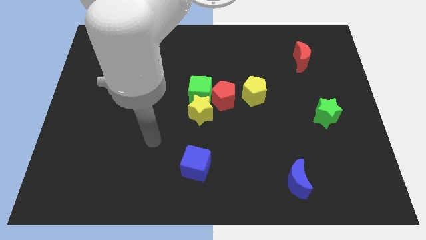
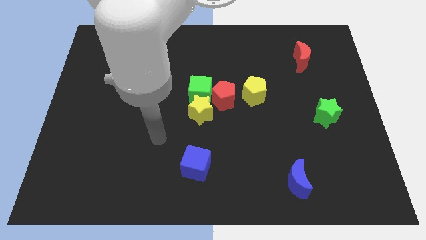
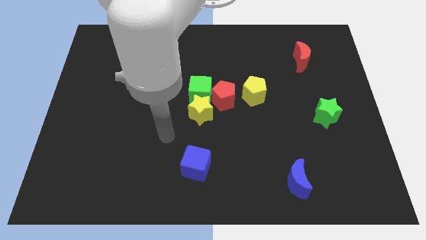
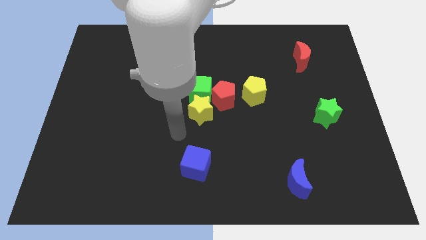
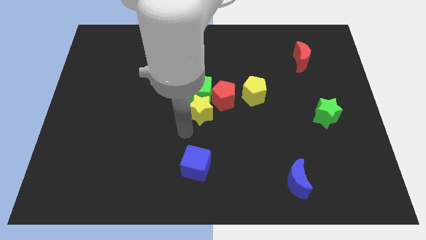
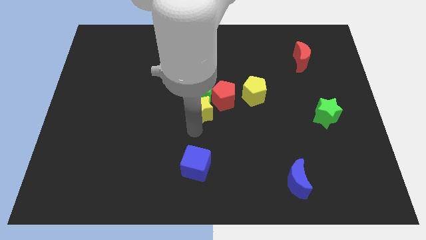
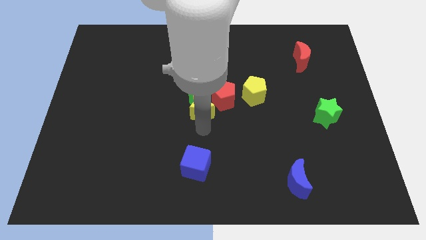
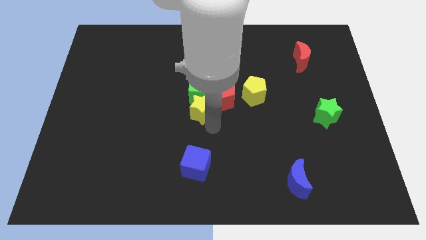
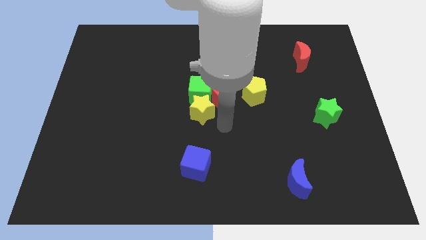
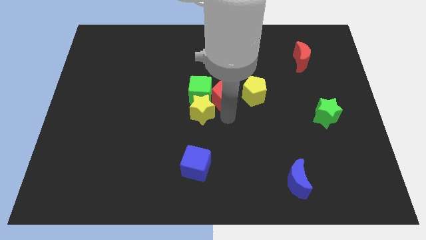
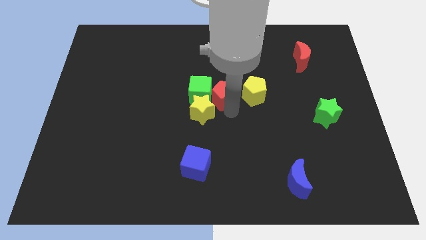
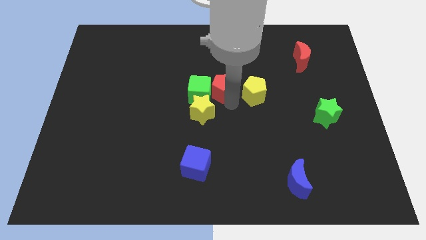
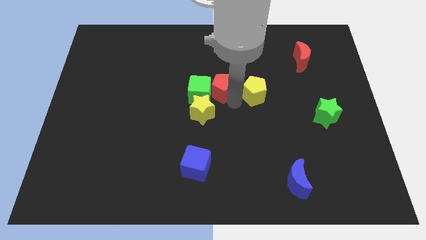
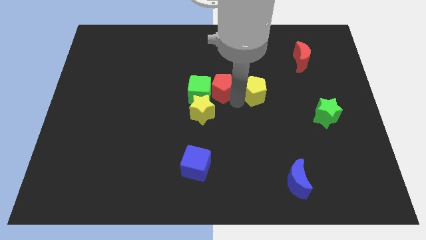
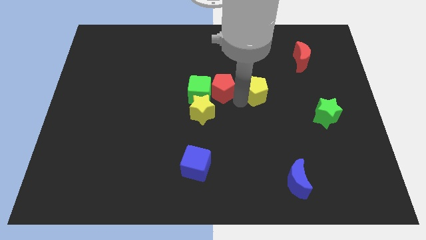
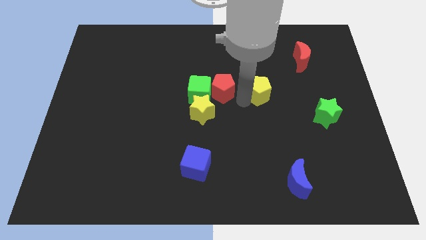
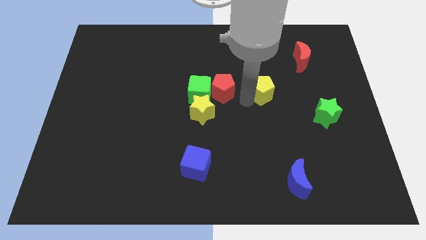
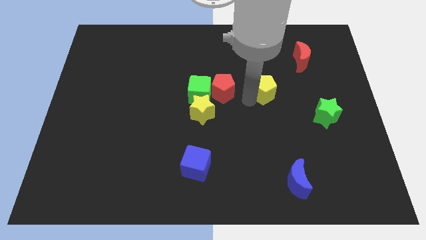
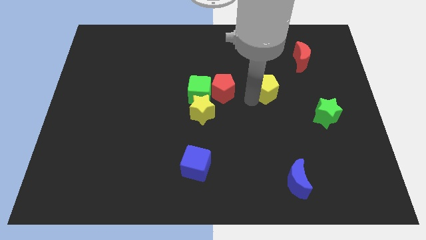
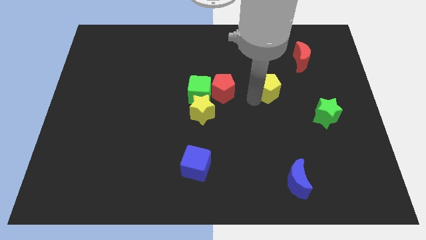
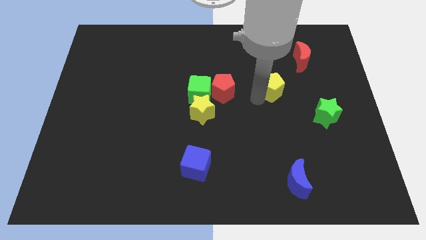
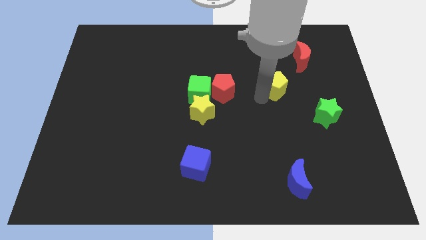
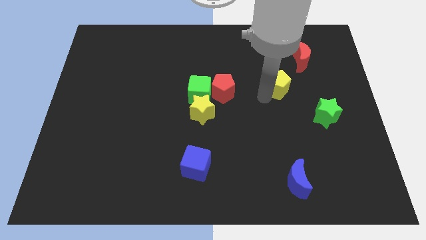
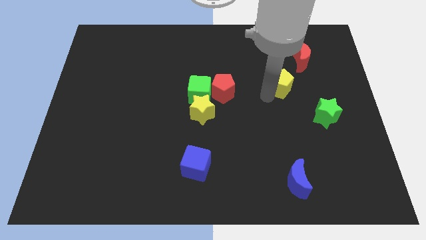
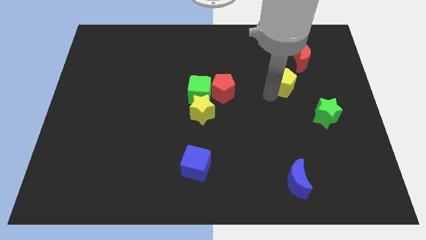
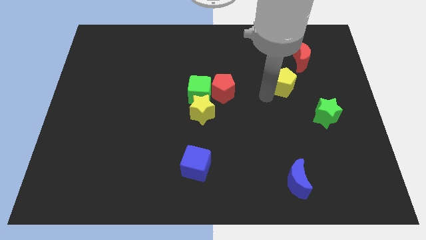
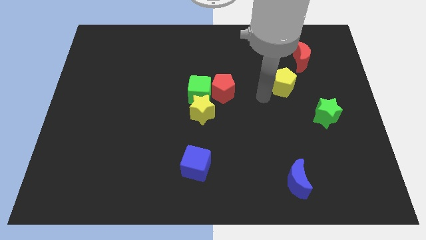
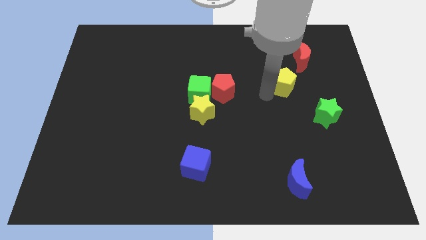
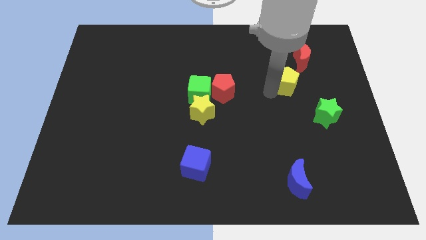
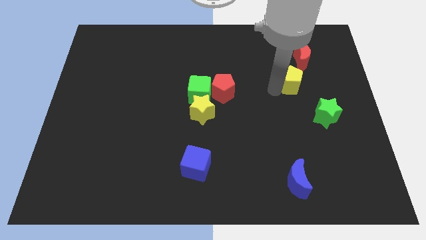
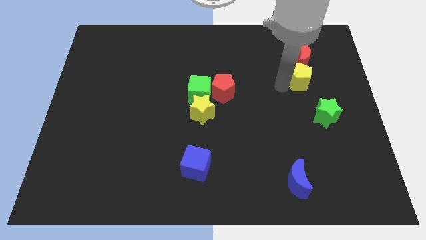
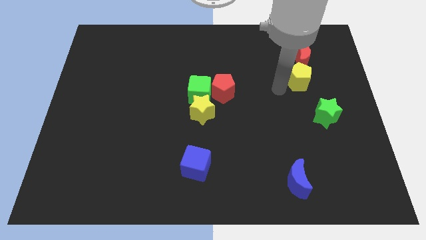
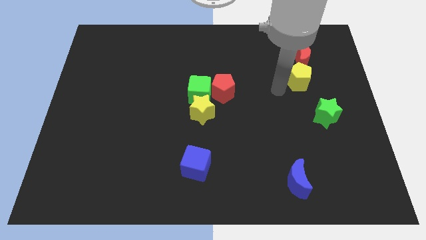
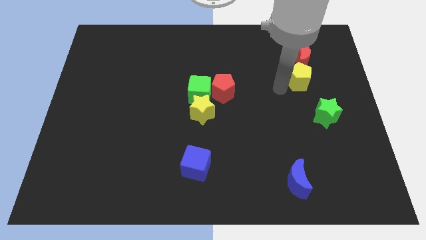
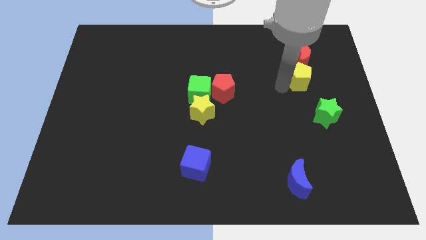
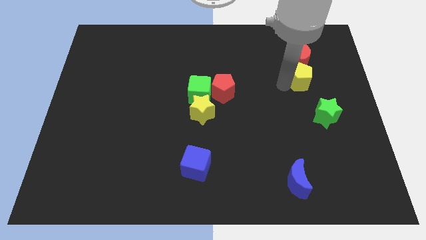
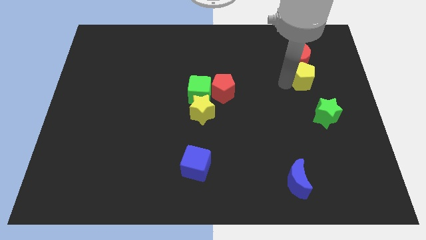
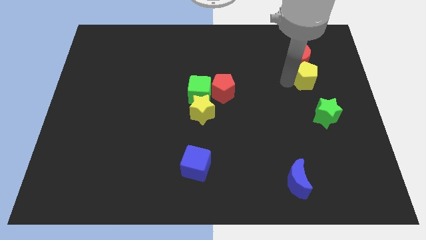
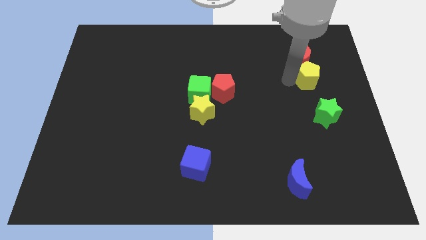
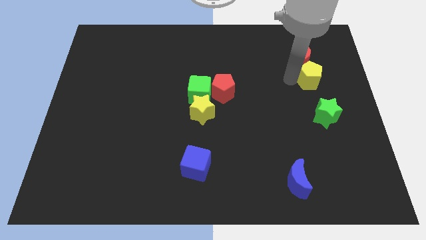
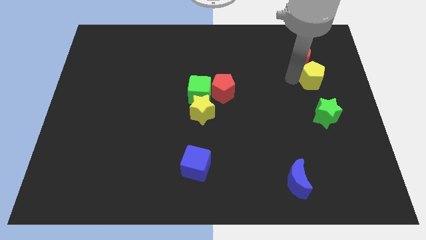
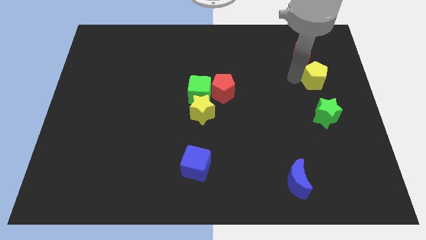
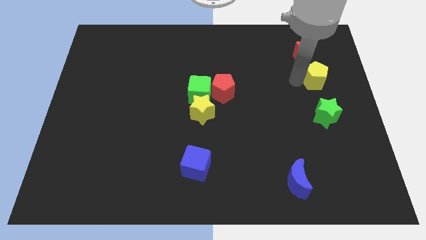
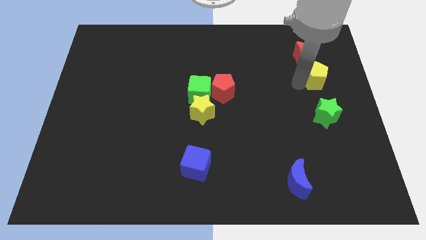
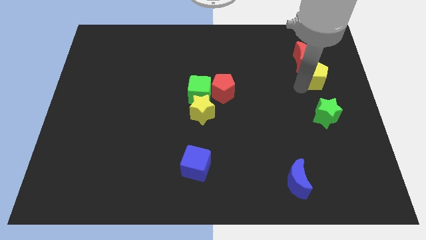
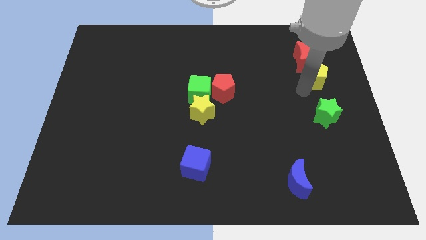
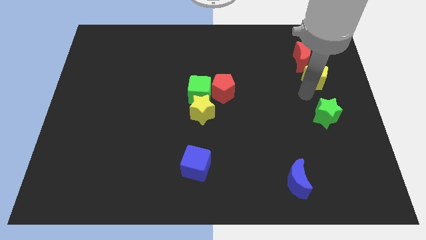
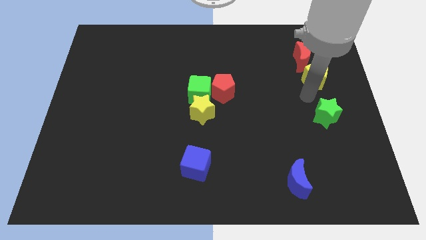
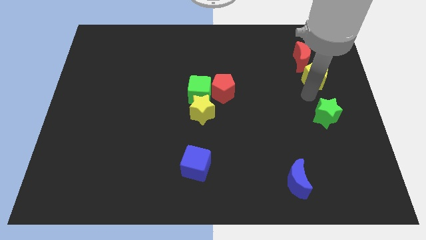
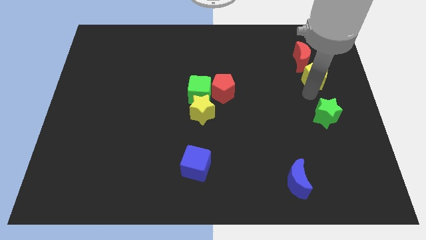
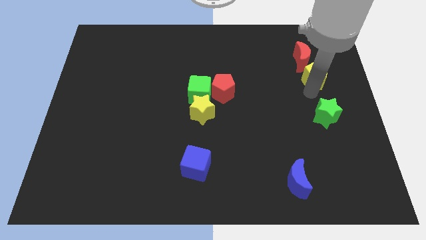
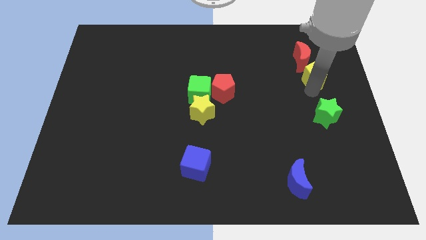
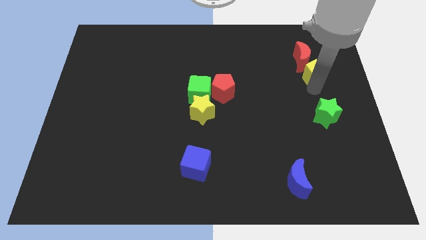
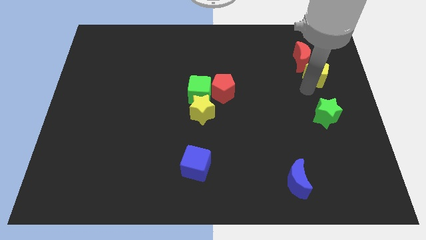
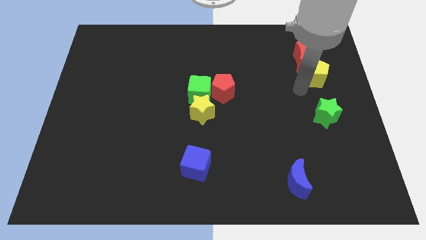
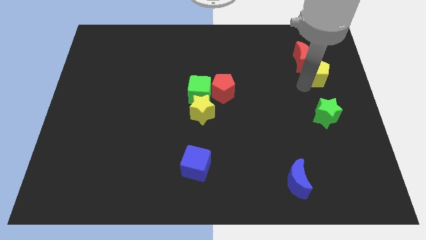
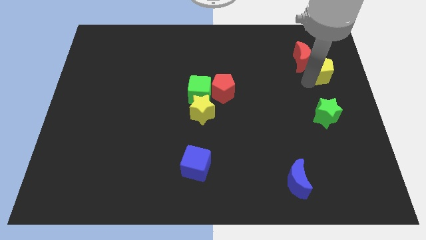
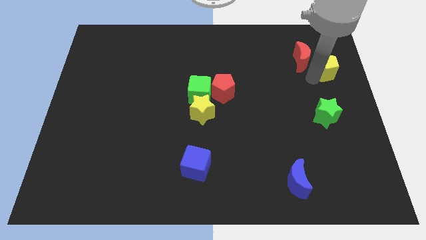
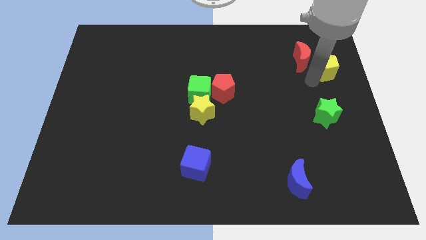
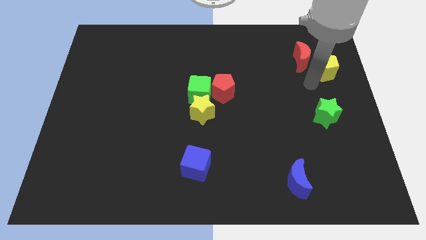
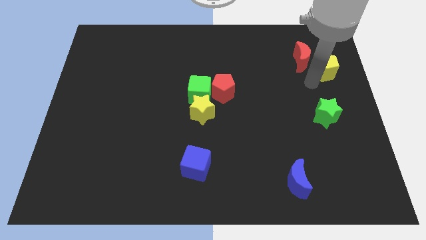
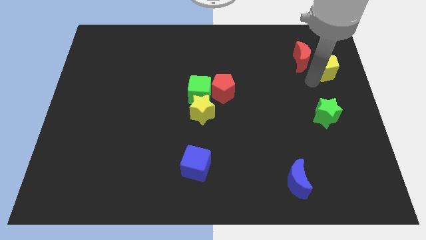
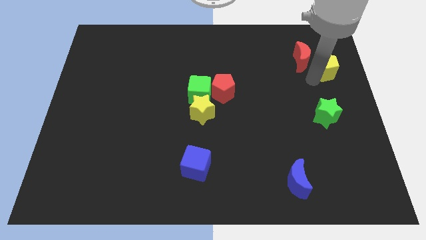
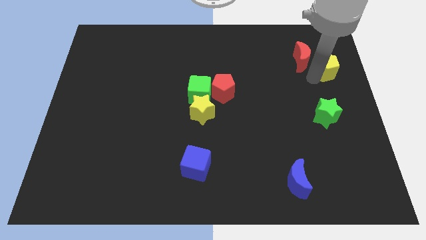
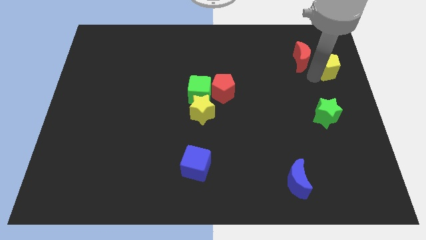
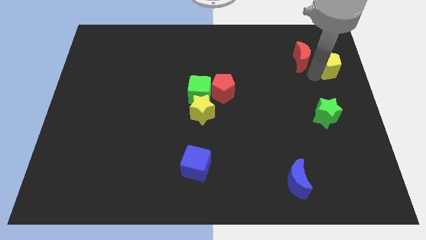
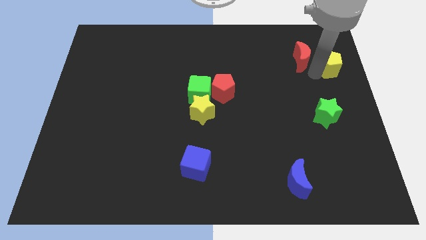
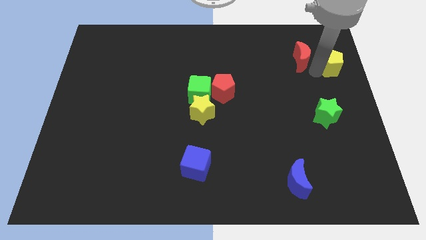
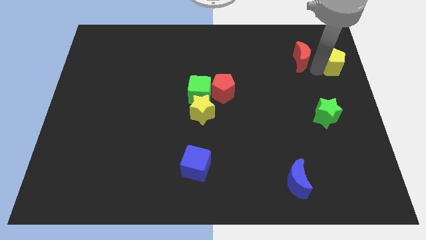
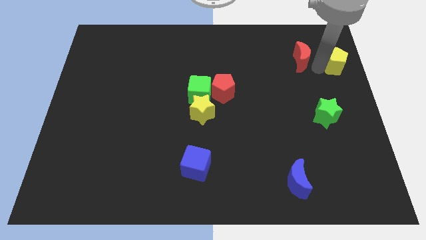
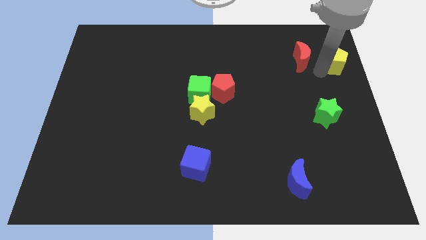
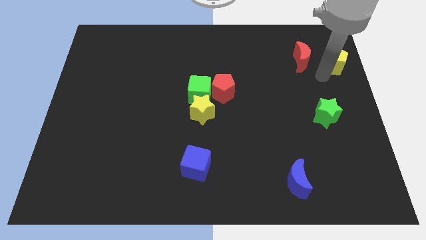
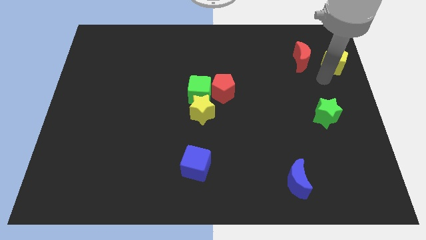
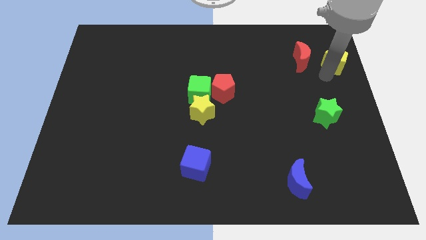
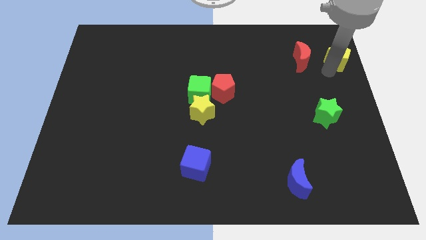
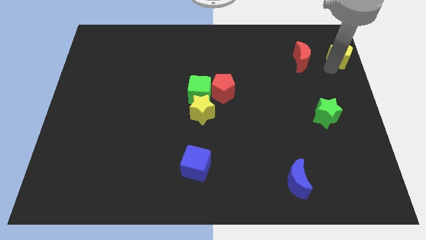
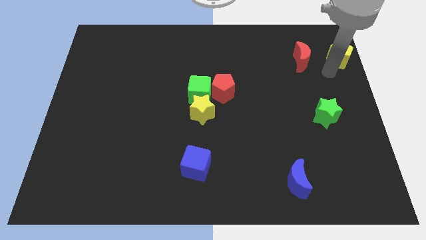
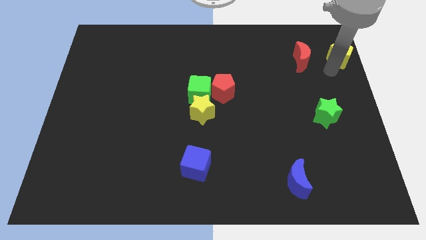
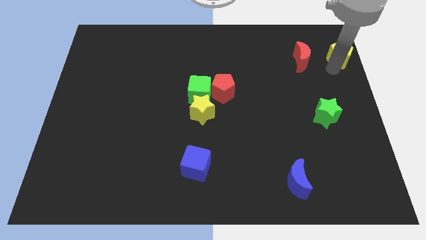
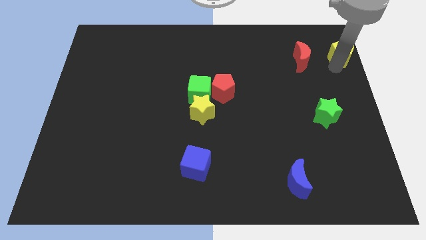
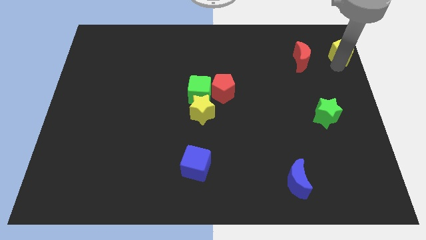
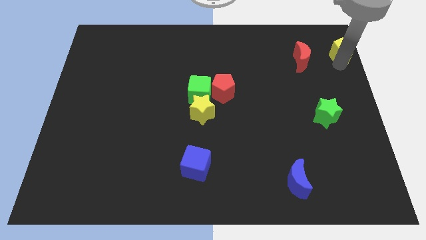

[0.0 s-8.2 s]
slide the yellow pentagon to the top right corner
